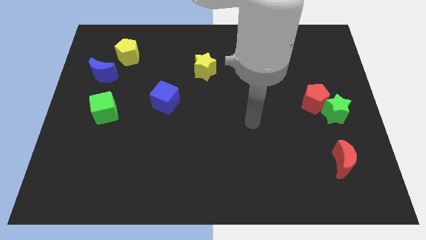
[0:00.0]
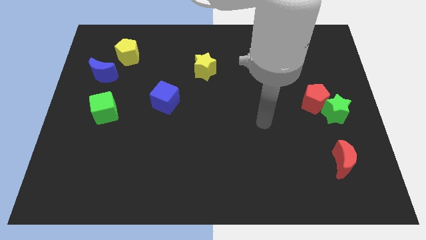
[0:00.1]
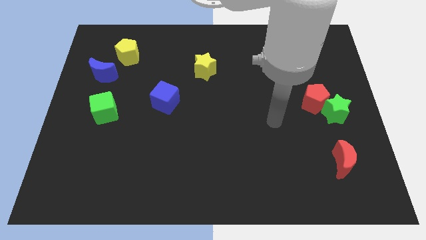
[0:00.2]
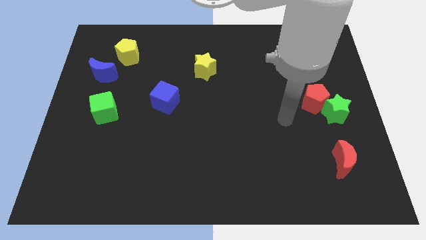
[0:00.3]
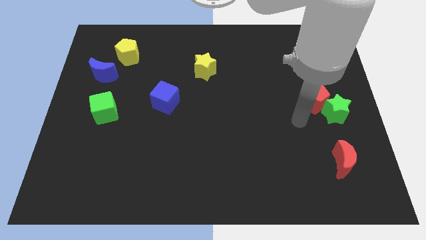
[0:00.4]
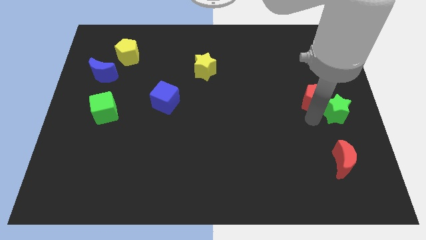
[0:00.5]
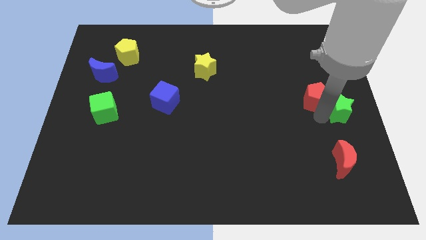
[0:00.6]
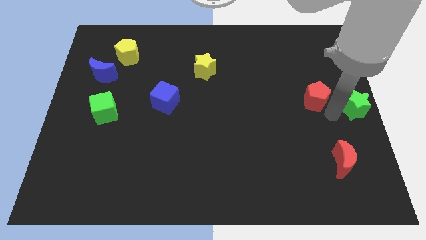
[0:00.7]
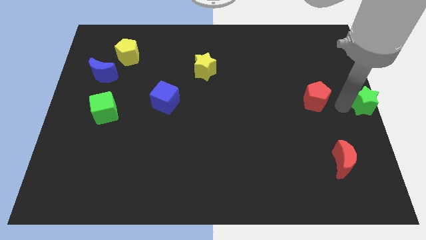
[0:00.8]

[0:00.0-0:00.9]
move the red pentagon away from the green star

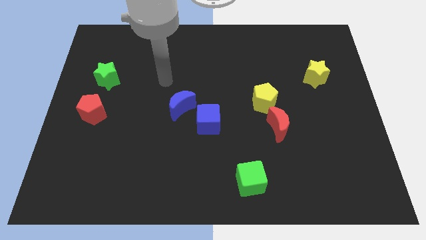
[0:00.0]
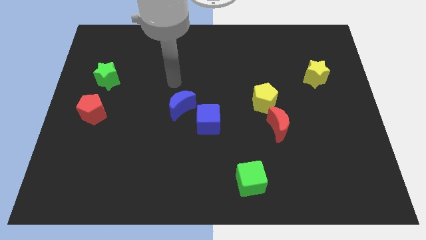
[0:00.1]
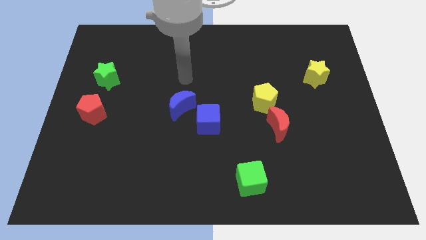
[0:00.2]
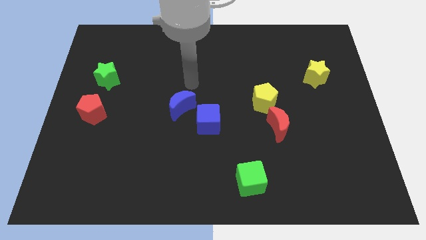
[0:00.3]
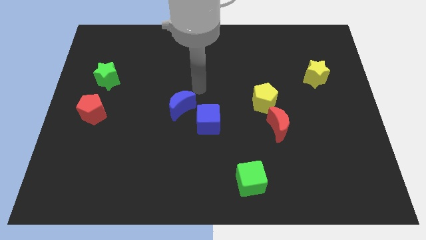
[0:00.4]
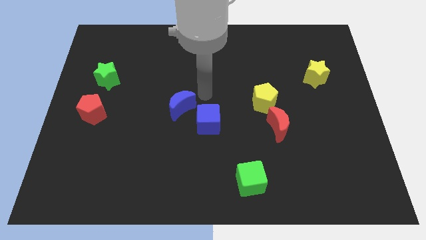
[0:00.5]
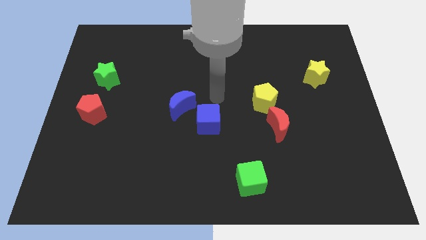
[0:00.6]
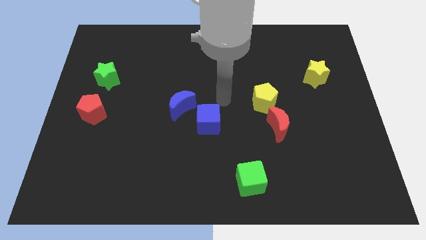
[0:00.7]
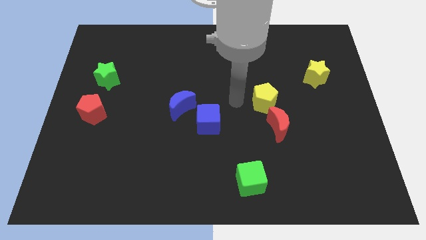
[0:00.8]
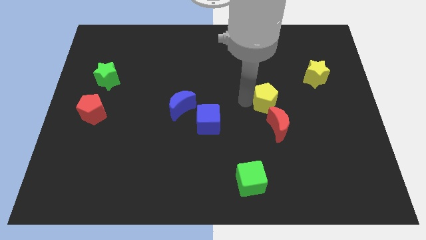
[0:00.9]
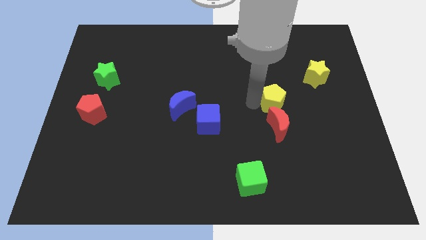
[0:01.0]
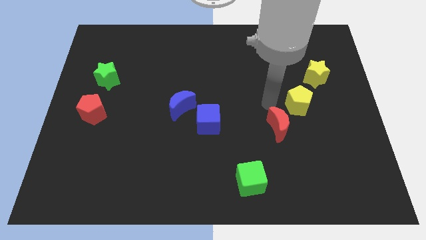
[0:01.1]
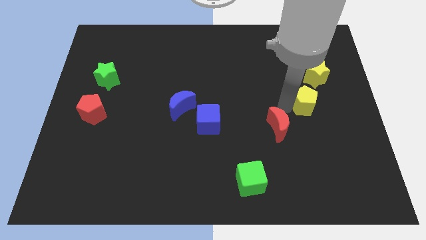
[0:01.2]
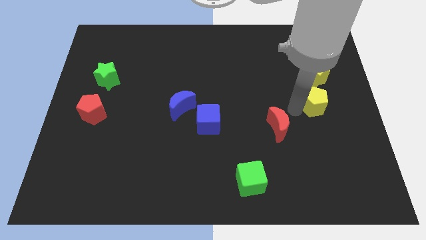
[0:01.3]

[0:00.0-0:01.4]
separate the red moon from the yellow pentagon

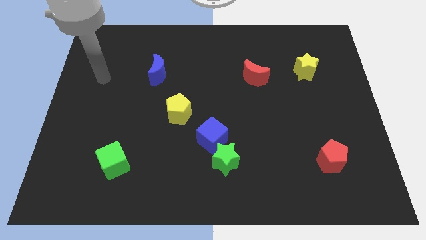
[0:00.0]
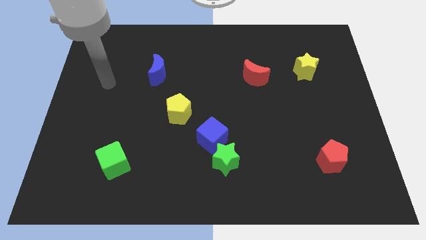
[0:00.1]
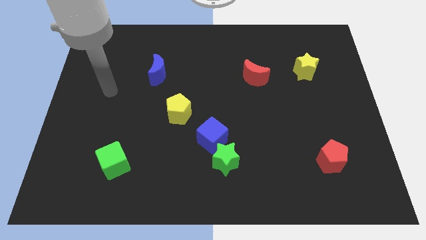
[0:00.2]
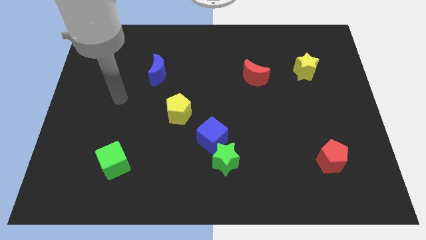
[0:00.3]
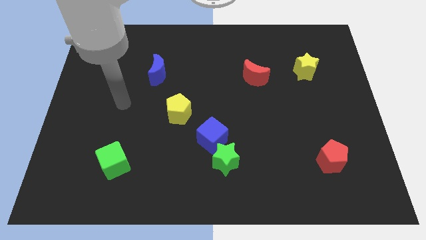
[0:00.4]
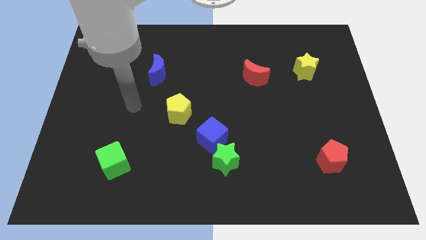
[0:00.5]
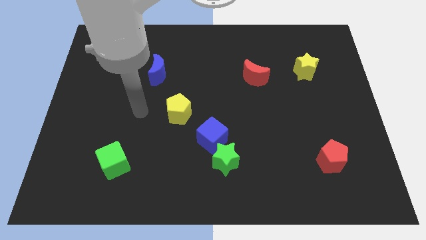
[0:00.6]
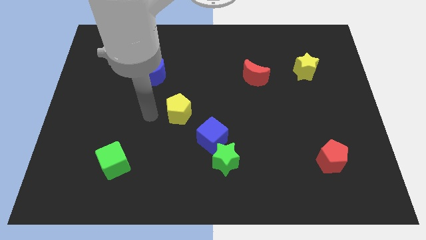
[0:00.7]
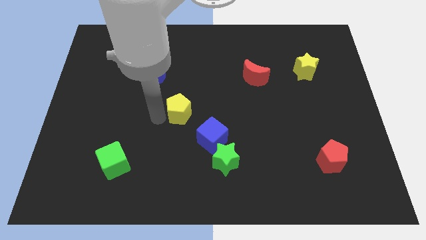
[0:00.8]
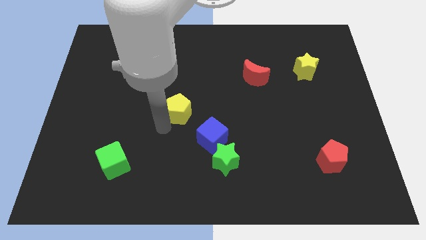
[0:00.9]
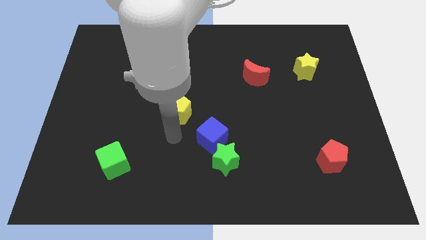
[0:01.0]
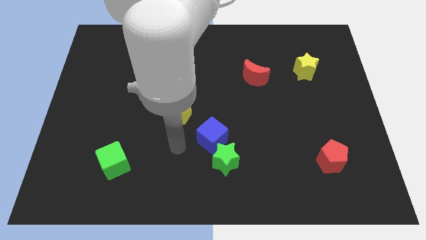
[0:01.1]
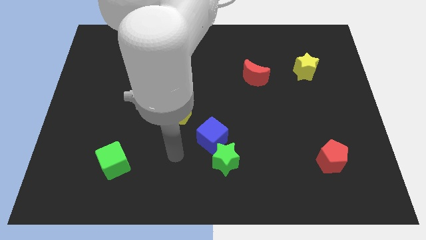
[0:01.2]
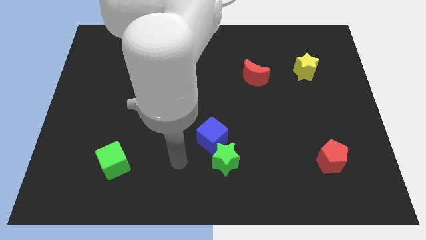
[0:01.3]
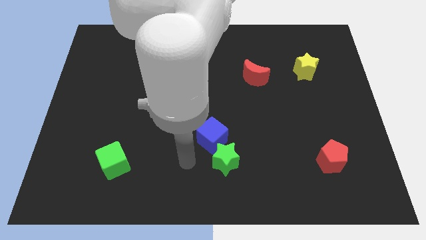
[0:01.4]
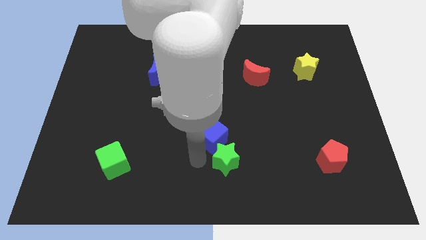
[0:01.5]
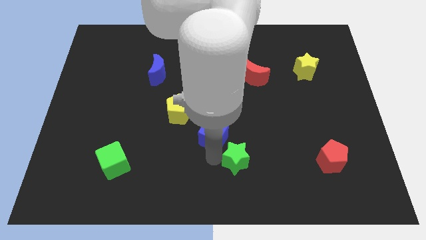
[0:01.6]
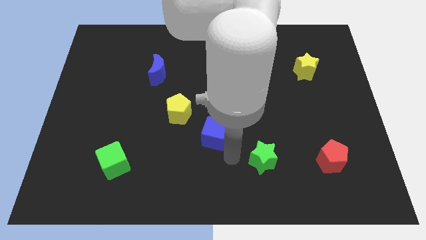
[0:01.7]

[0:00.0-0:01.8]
pull the blue cube apart from the green star

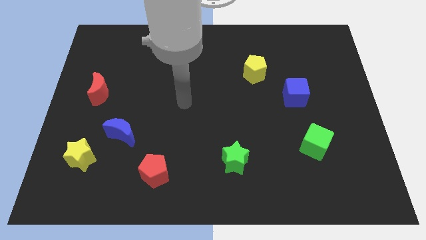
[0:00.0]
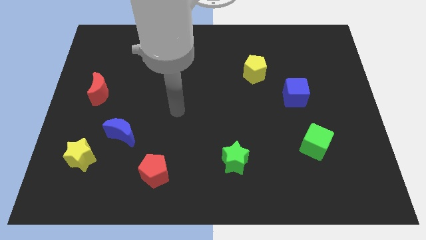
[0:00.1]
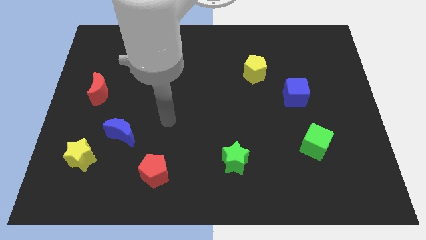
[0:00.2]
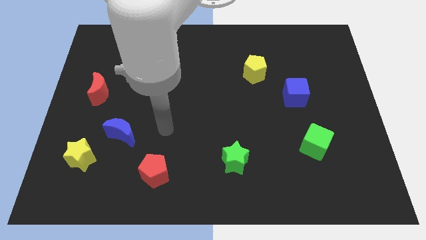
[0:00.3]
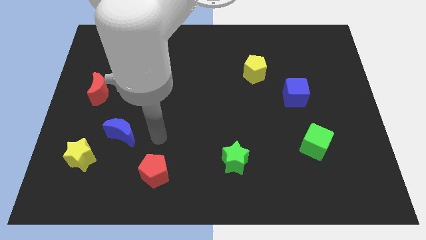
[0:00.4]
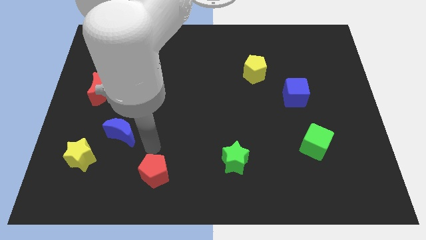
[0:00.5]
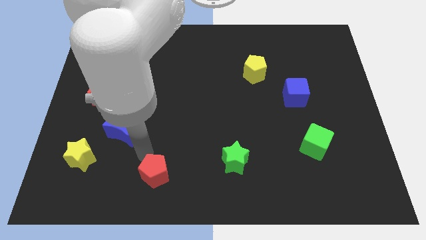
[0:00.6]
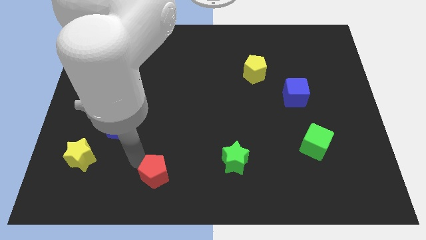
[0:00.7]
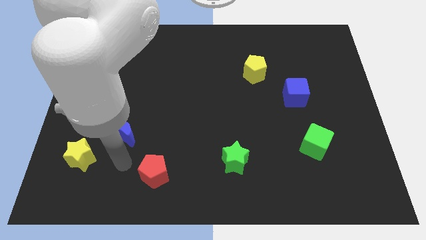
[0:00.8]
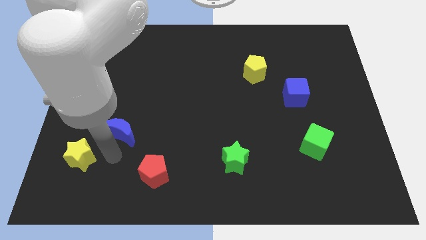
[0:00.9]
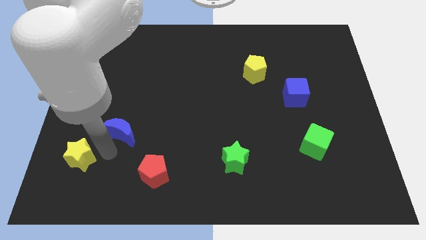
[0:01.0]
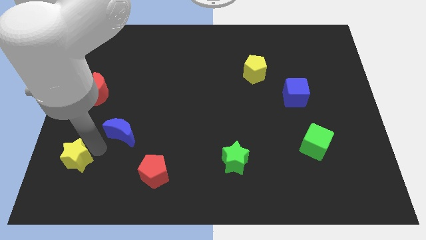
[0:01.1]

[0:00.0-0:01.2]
move the blue moon away from the yellow star

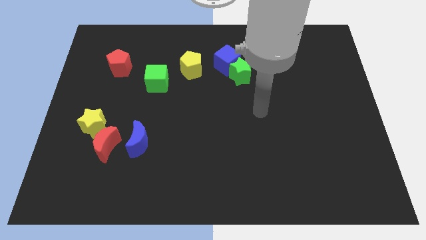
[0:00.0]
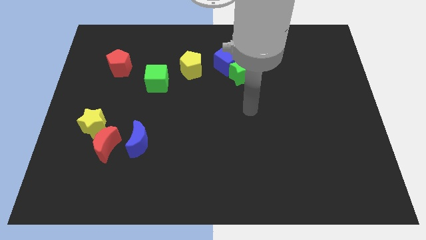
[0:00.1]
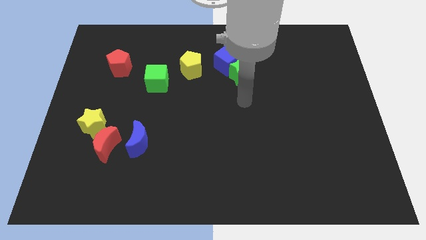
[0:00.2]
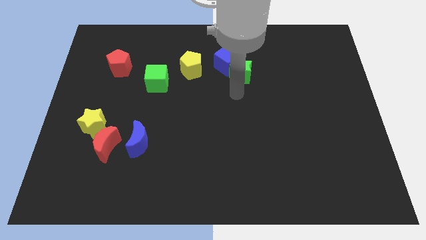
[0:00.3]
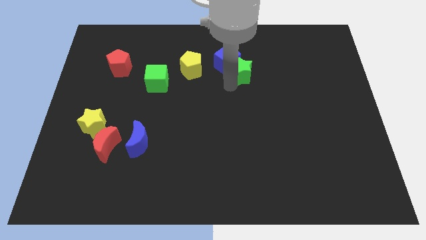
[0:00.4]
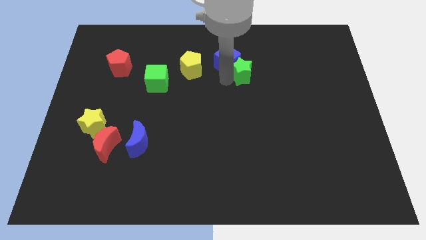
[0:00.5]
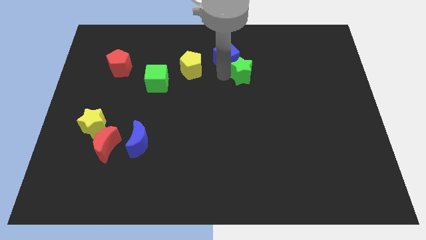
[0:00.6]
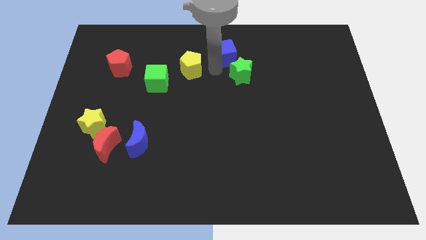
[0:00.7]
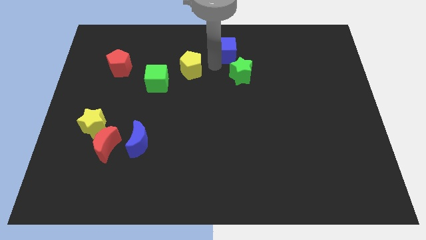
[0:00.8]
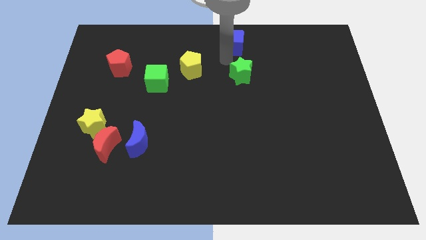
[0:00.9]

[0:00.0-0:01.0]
move the green star away from the blue cube

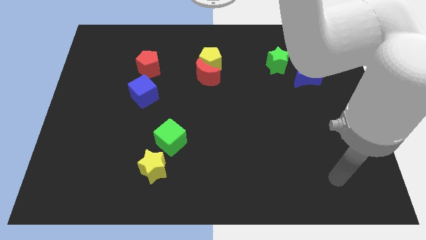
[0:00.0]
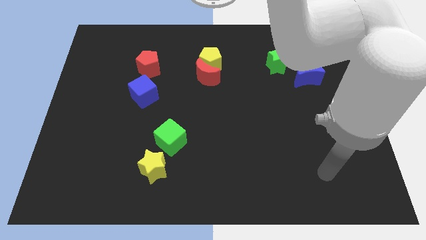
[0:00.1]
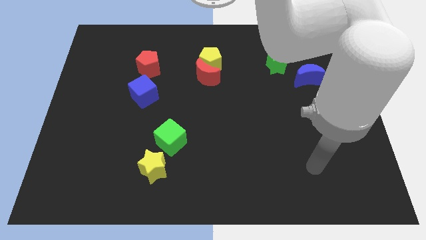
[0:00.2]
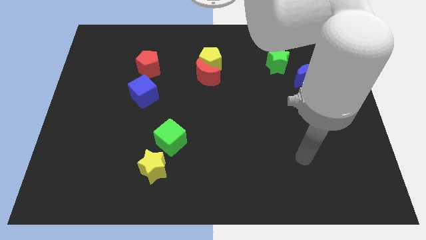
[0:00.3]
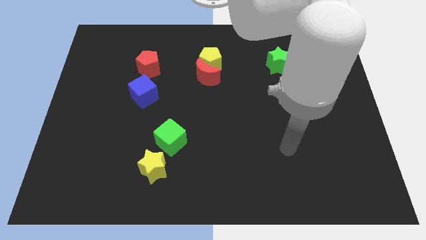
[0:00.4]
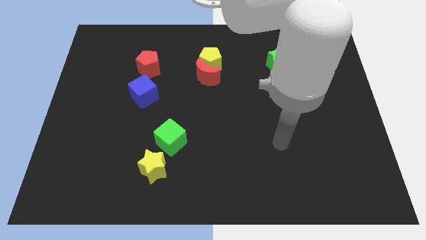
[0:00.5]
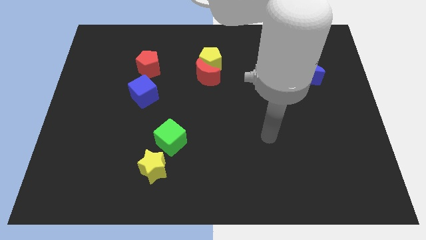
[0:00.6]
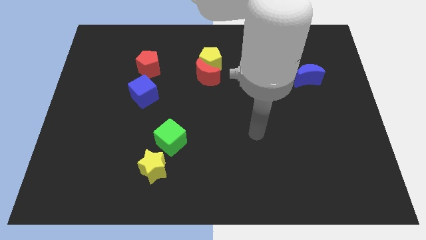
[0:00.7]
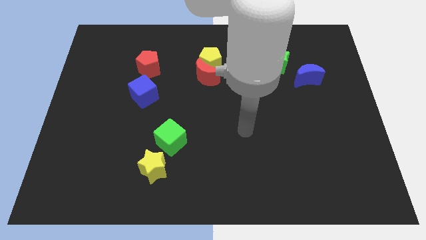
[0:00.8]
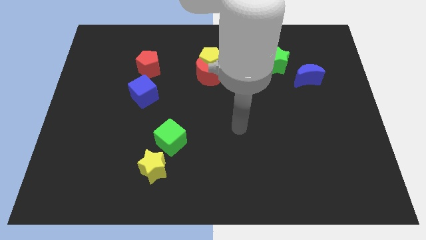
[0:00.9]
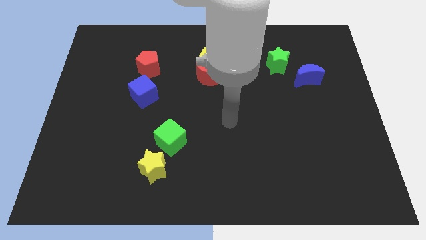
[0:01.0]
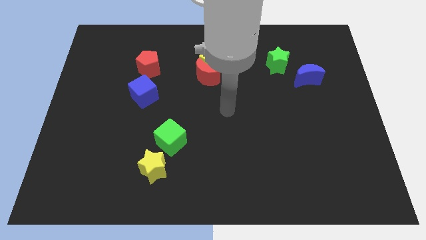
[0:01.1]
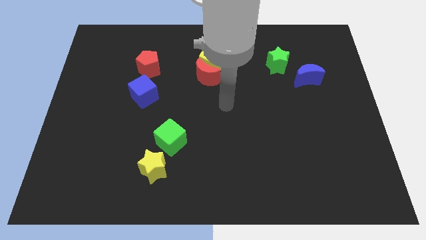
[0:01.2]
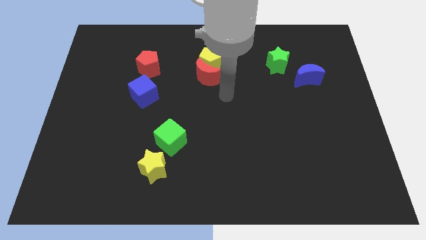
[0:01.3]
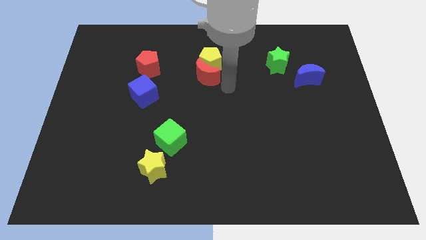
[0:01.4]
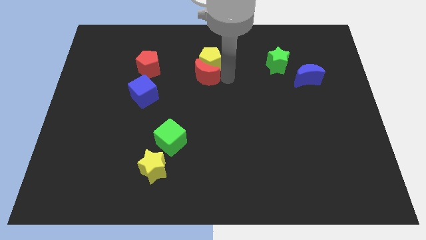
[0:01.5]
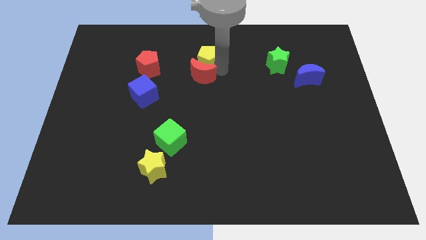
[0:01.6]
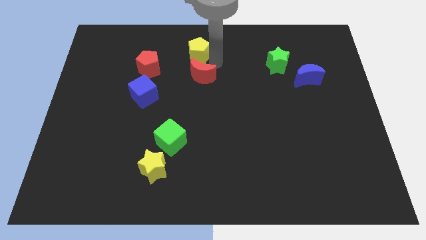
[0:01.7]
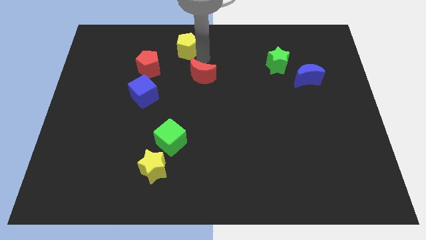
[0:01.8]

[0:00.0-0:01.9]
pull the red moon apart from the yellow pentagon

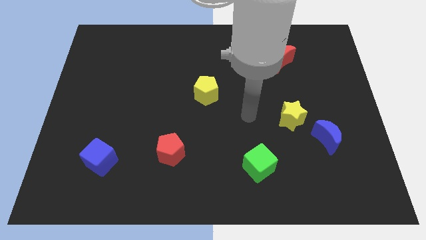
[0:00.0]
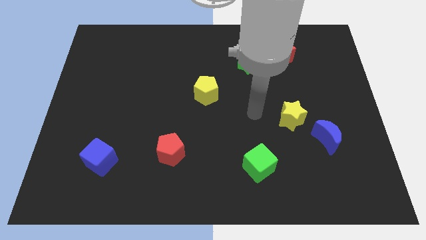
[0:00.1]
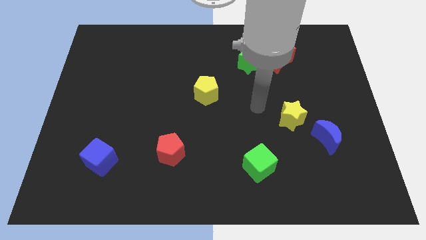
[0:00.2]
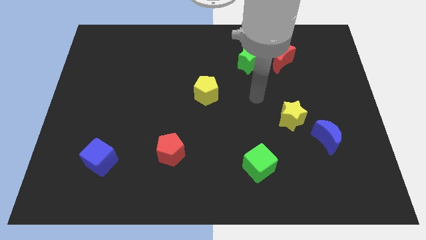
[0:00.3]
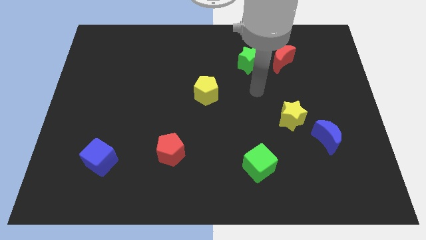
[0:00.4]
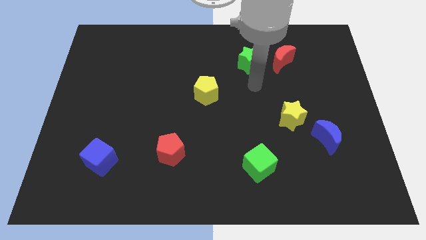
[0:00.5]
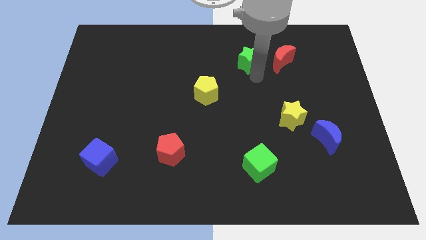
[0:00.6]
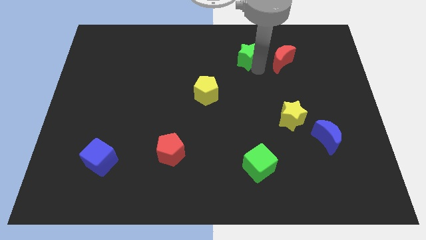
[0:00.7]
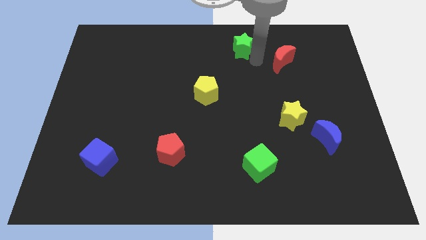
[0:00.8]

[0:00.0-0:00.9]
pull the red moon apart from the green star

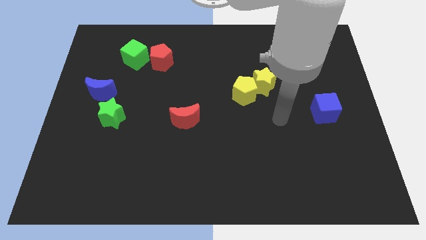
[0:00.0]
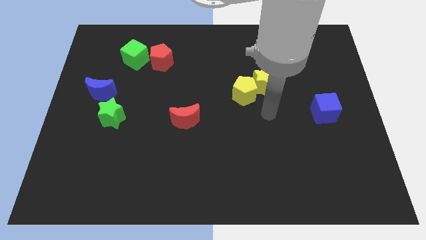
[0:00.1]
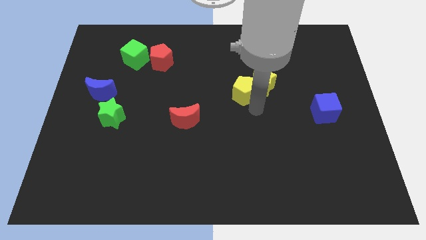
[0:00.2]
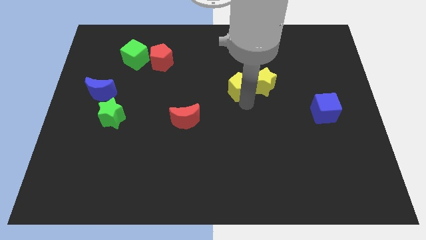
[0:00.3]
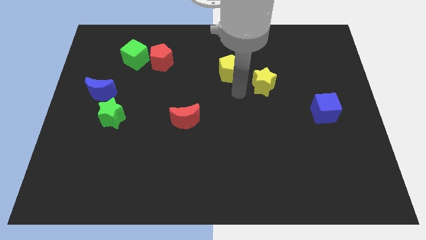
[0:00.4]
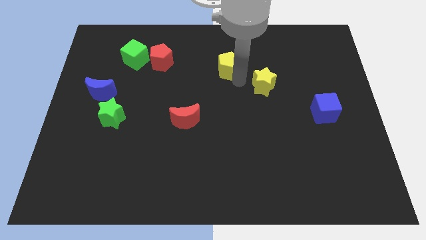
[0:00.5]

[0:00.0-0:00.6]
move the yellow star away from the yellow pentagon
